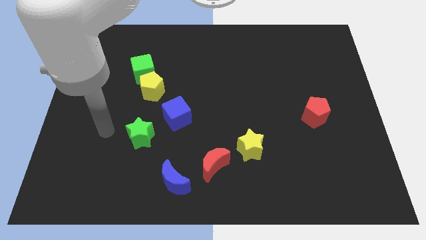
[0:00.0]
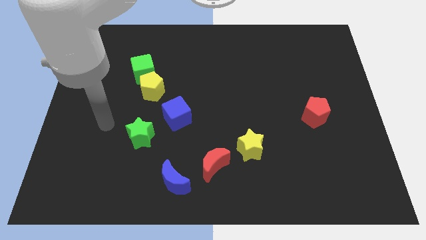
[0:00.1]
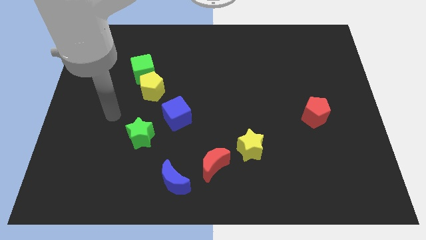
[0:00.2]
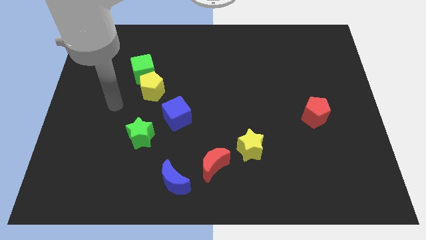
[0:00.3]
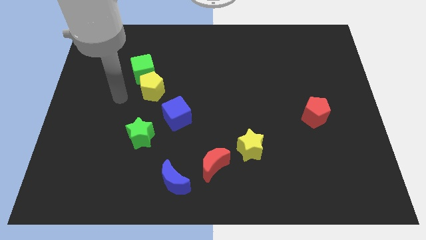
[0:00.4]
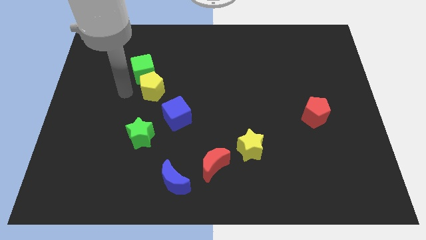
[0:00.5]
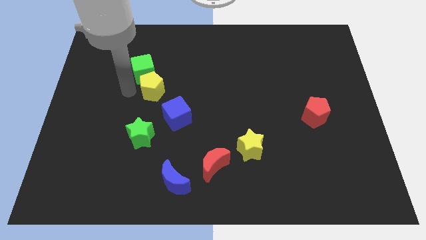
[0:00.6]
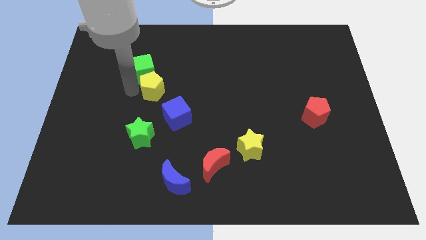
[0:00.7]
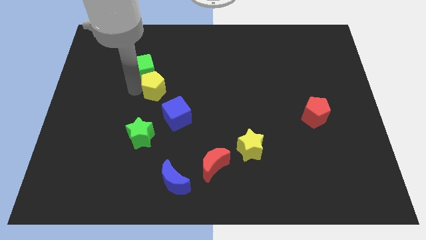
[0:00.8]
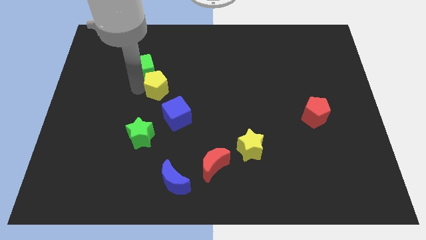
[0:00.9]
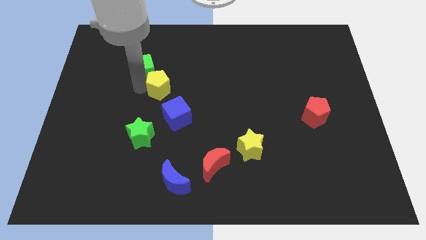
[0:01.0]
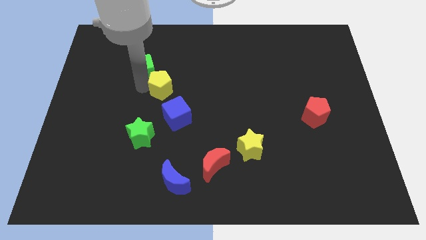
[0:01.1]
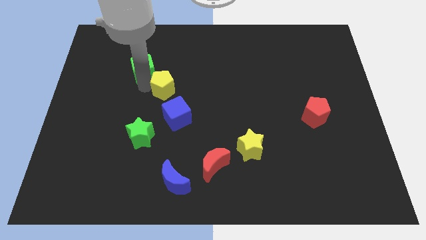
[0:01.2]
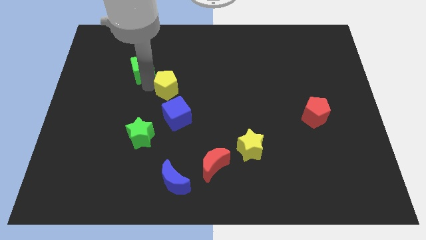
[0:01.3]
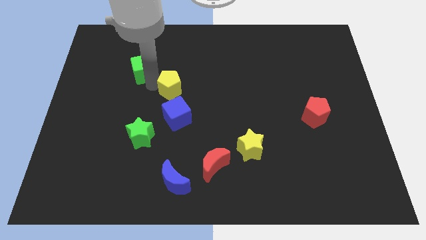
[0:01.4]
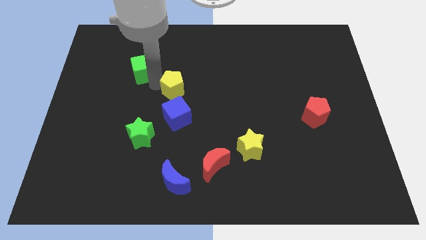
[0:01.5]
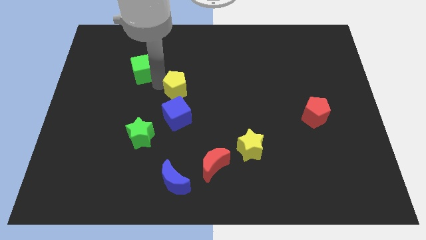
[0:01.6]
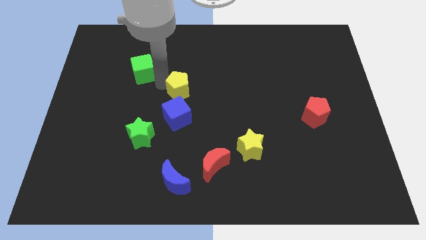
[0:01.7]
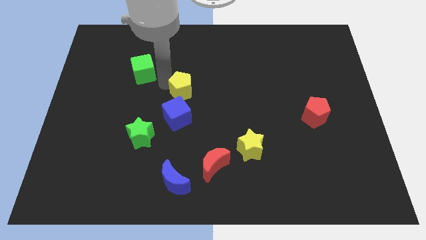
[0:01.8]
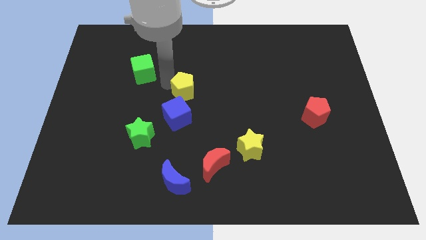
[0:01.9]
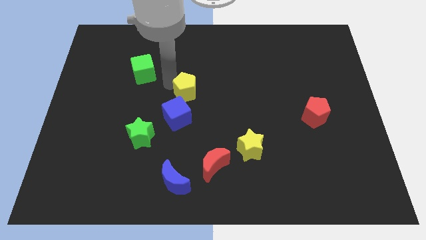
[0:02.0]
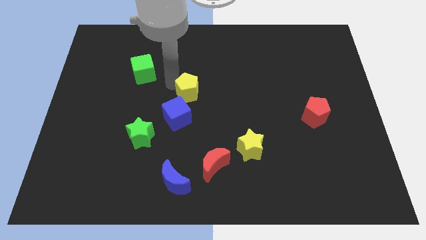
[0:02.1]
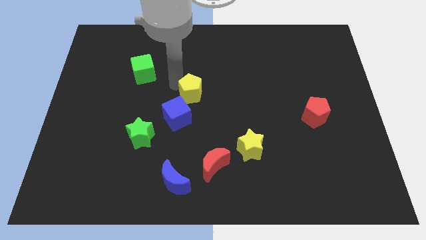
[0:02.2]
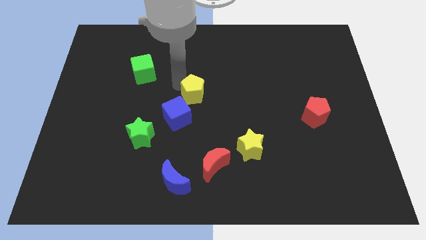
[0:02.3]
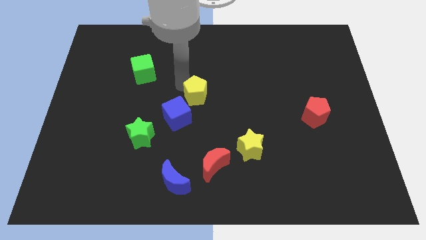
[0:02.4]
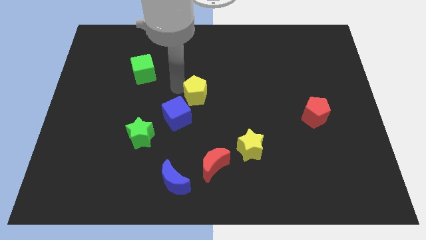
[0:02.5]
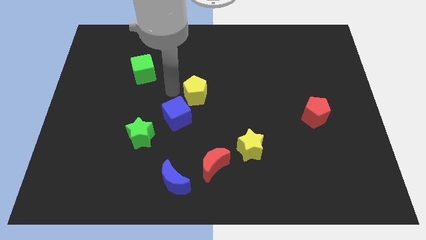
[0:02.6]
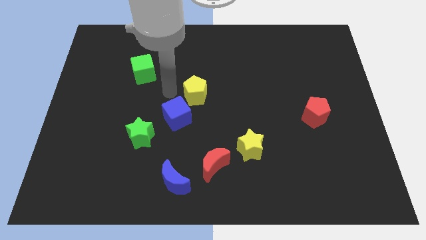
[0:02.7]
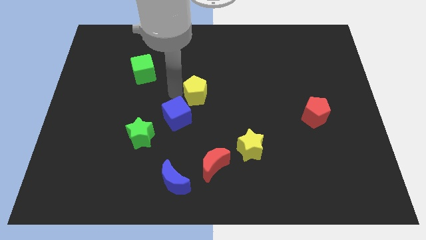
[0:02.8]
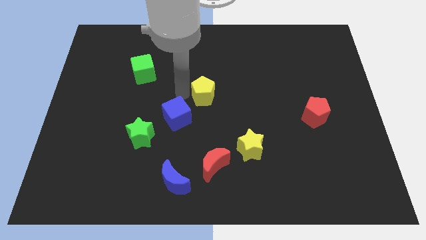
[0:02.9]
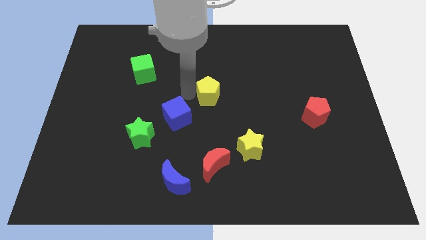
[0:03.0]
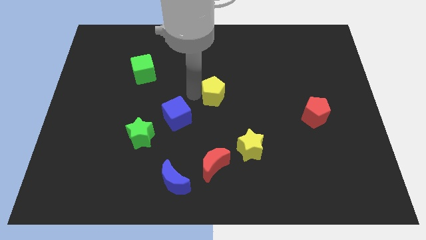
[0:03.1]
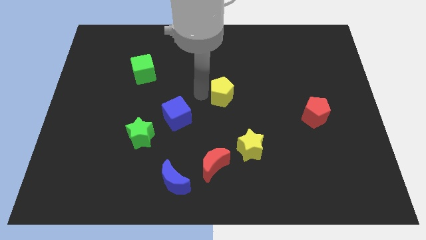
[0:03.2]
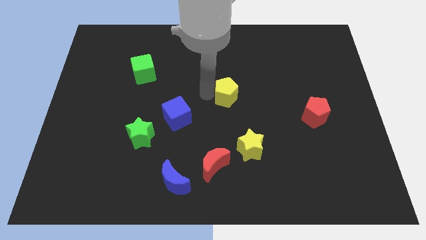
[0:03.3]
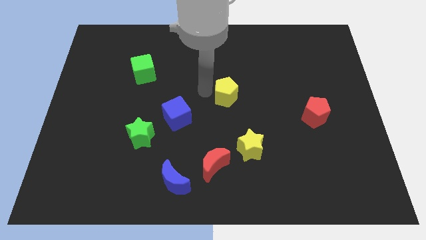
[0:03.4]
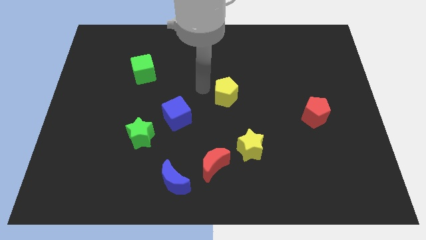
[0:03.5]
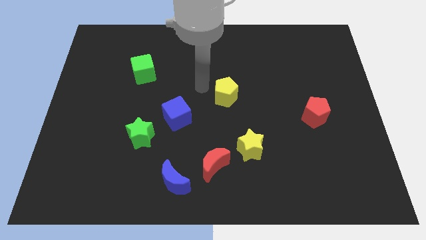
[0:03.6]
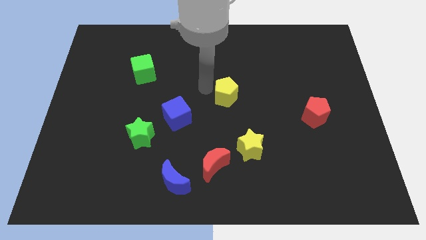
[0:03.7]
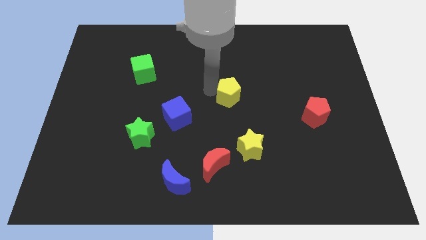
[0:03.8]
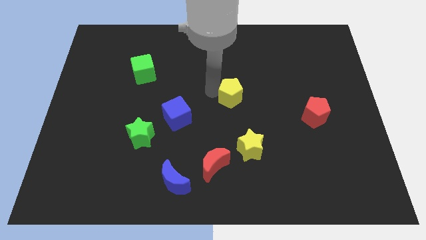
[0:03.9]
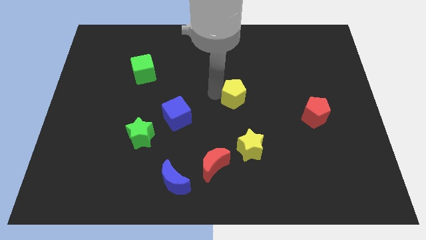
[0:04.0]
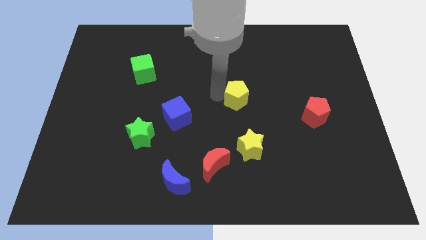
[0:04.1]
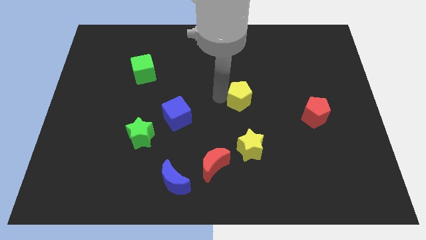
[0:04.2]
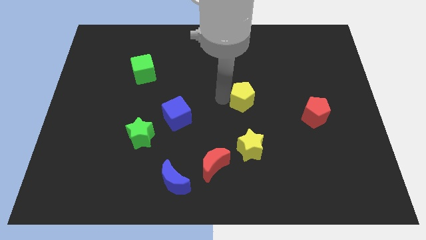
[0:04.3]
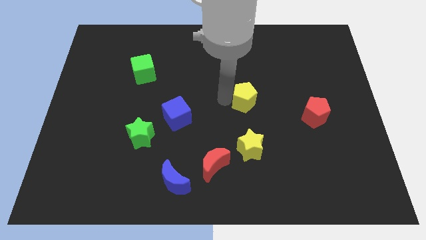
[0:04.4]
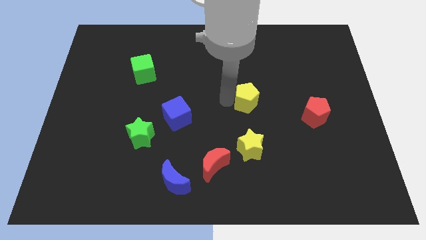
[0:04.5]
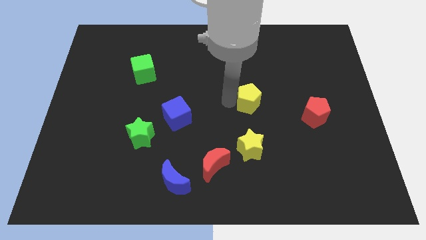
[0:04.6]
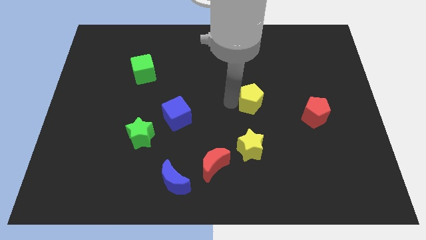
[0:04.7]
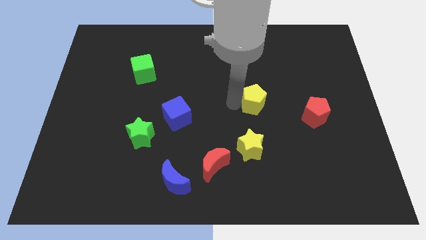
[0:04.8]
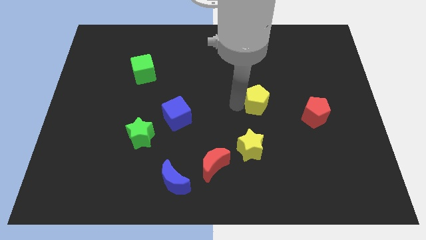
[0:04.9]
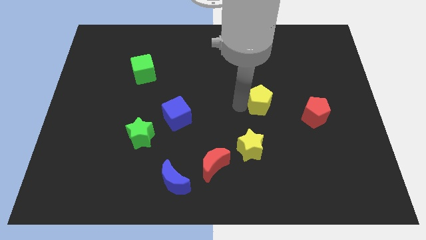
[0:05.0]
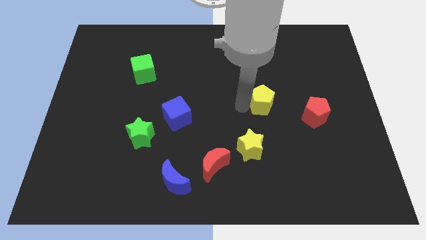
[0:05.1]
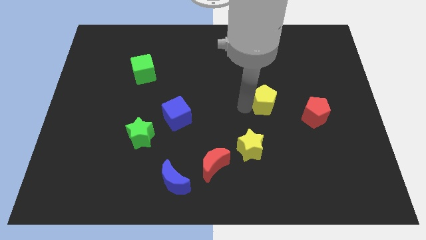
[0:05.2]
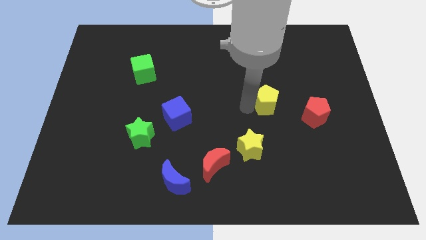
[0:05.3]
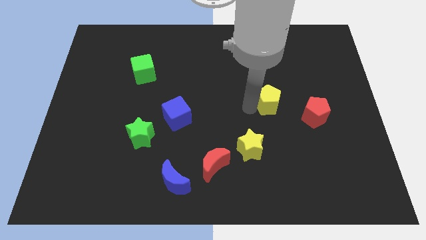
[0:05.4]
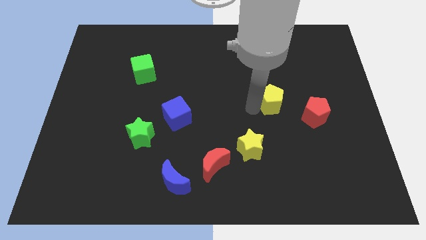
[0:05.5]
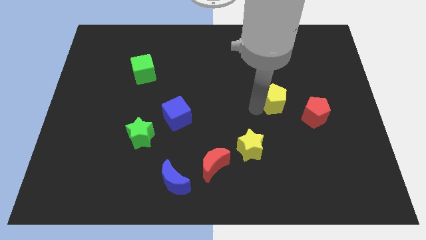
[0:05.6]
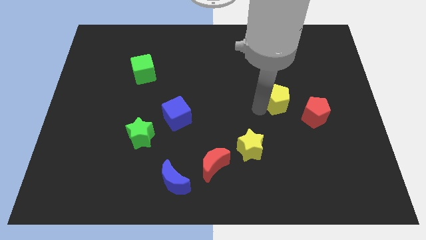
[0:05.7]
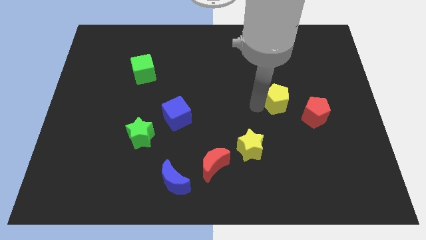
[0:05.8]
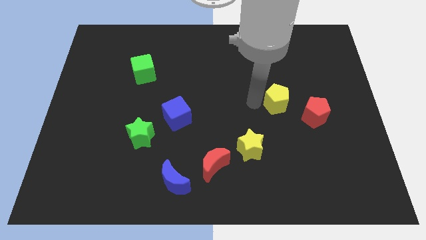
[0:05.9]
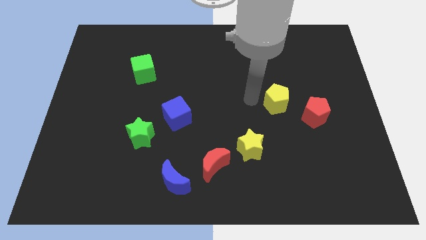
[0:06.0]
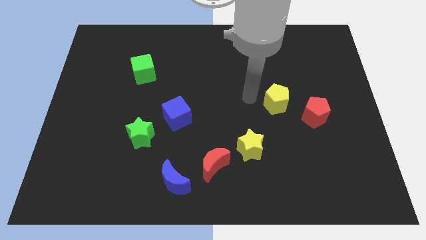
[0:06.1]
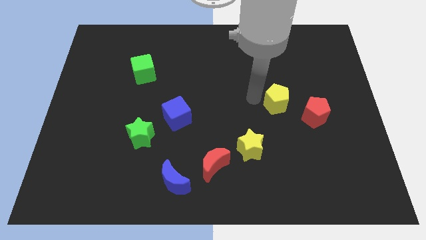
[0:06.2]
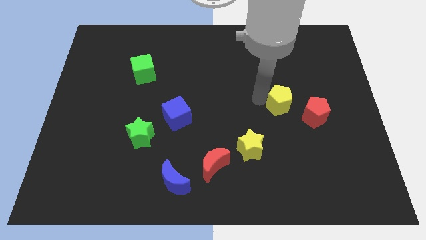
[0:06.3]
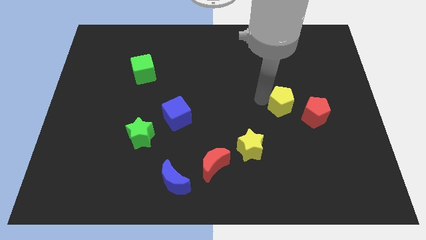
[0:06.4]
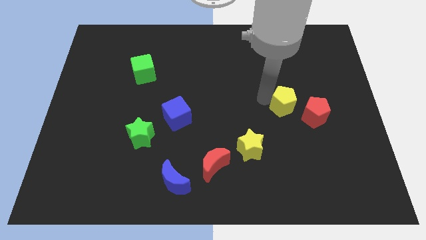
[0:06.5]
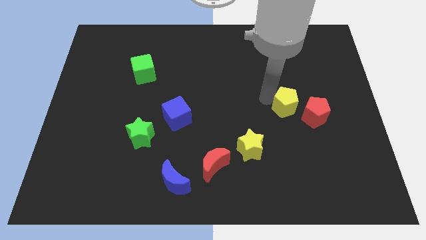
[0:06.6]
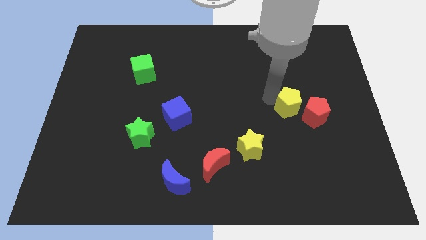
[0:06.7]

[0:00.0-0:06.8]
push the yellow pentagon next to the red pentagon

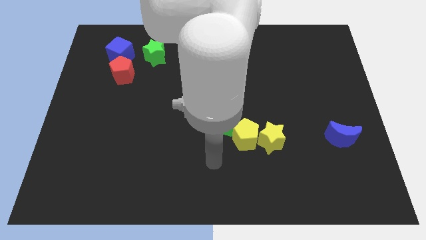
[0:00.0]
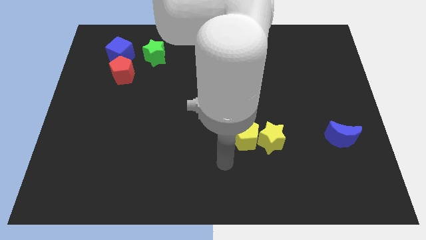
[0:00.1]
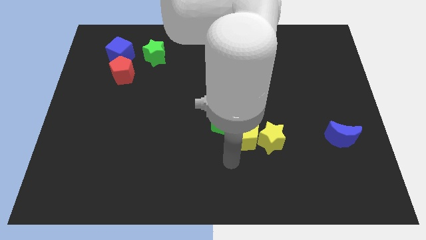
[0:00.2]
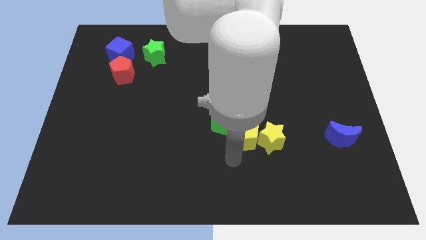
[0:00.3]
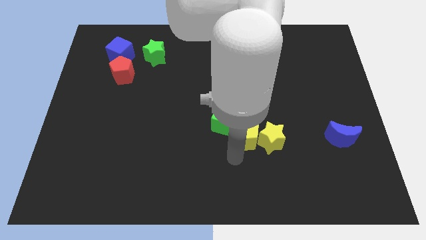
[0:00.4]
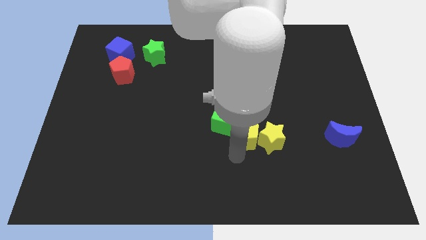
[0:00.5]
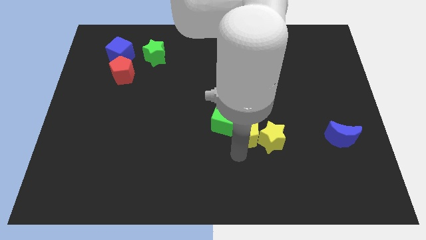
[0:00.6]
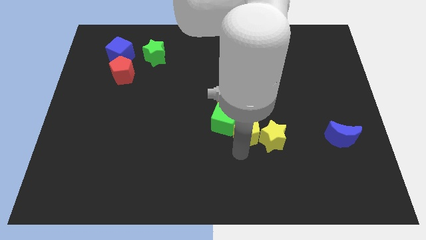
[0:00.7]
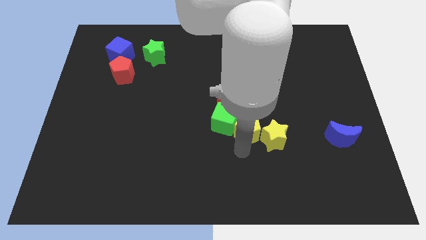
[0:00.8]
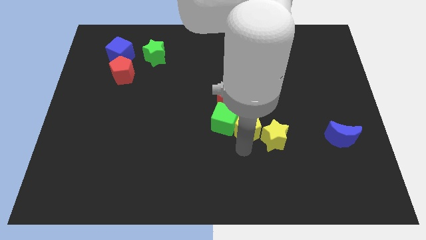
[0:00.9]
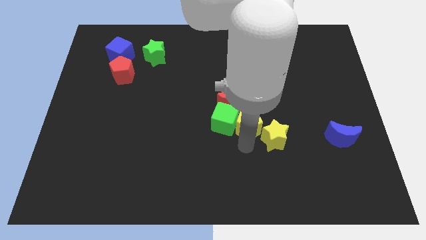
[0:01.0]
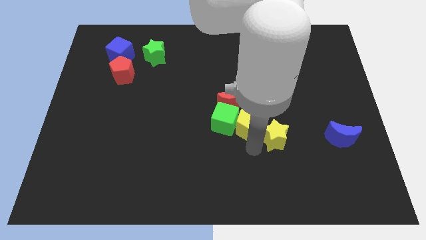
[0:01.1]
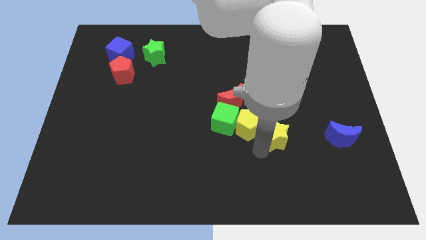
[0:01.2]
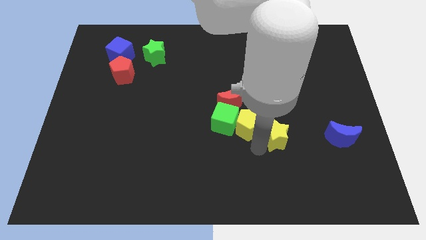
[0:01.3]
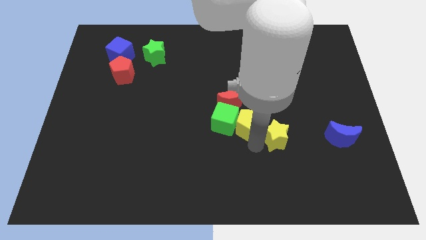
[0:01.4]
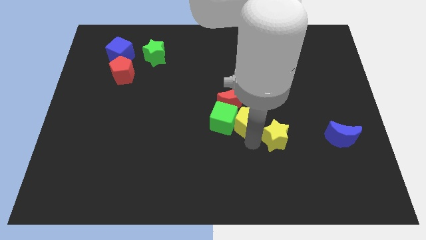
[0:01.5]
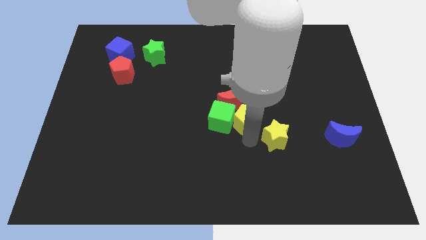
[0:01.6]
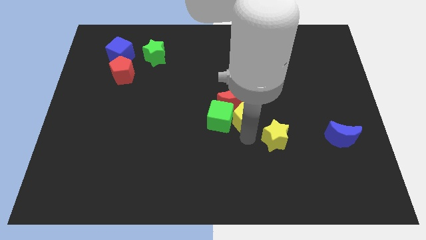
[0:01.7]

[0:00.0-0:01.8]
slide the yellow pentagon next to the red moon
